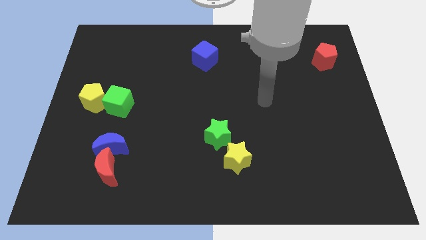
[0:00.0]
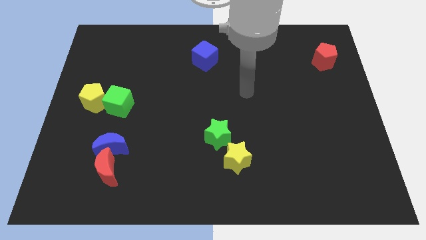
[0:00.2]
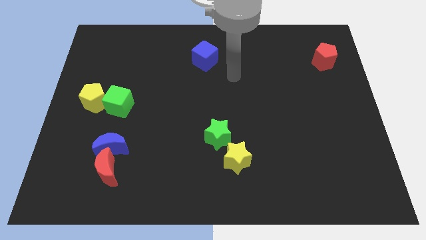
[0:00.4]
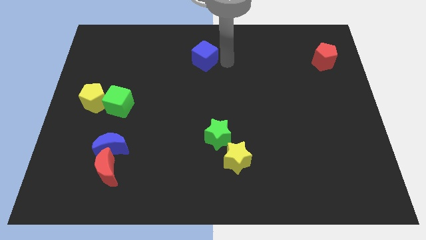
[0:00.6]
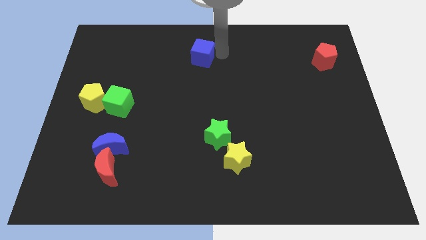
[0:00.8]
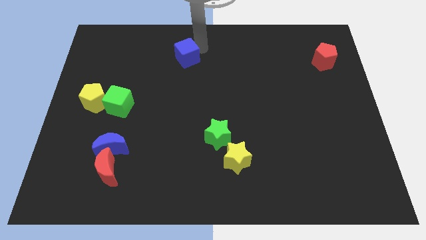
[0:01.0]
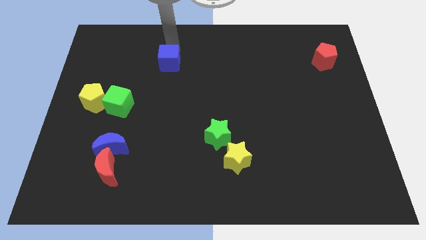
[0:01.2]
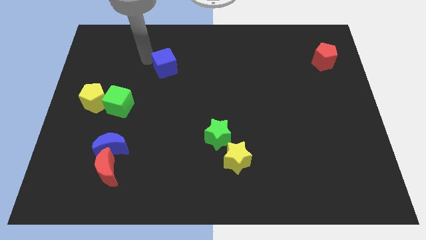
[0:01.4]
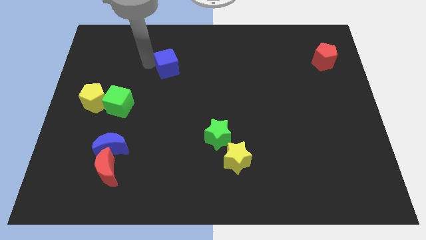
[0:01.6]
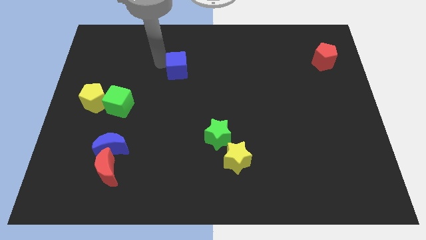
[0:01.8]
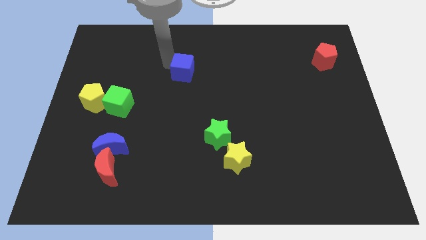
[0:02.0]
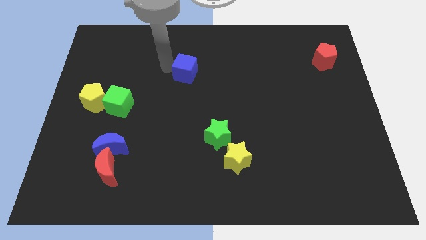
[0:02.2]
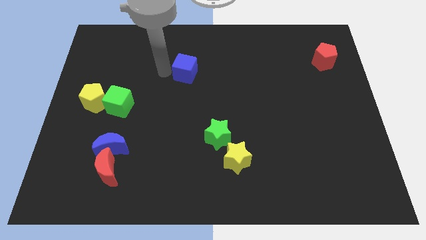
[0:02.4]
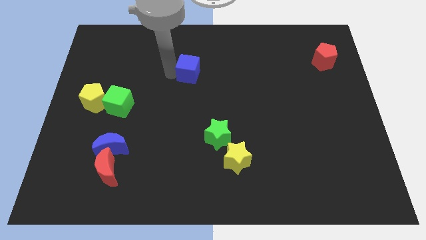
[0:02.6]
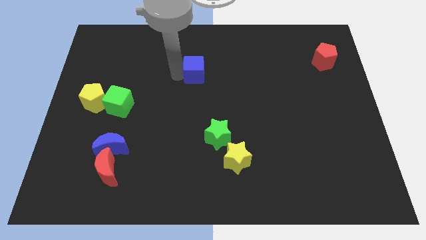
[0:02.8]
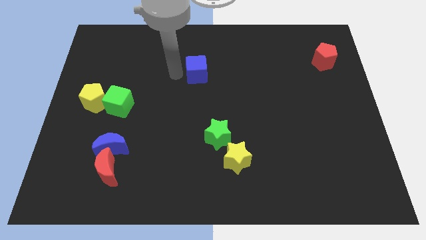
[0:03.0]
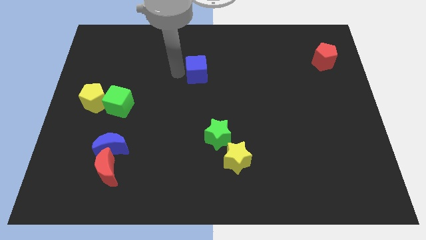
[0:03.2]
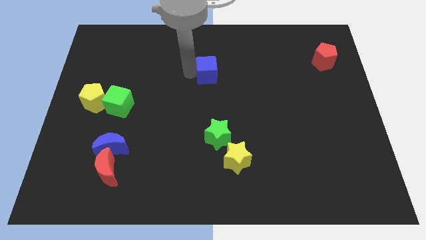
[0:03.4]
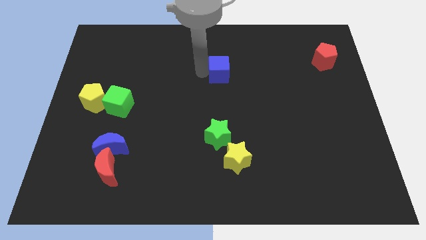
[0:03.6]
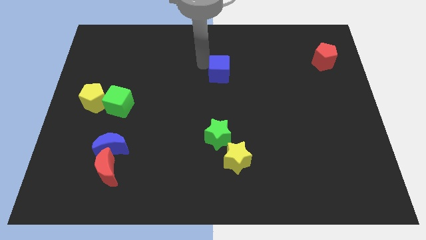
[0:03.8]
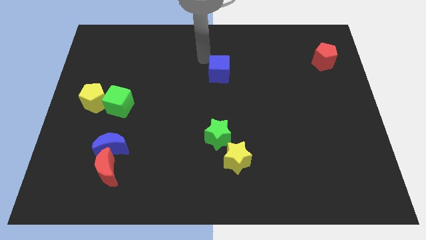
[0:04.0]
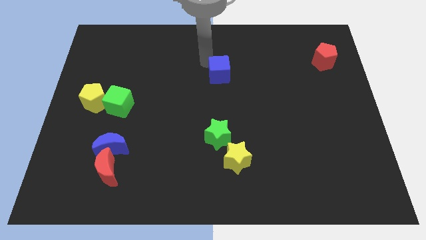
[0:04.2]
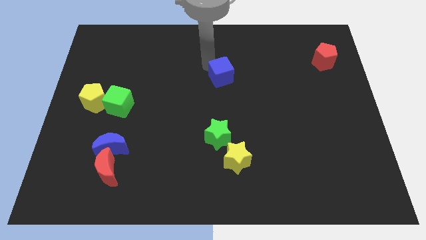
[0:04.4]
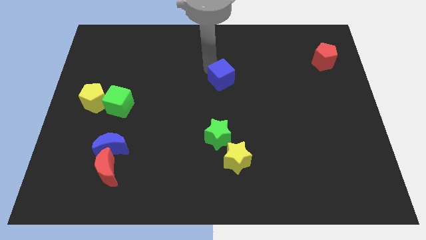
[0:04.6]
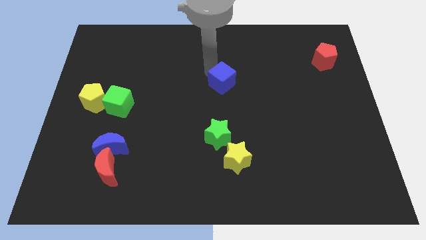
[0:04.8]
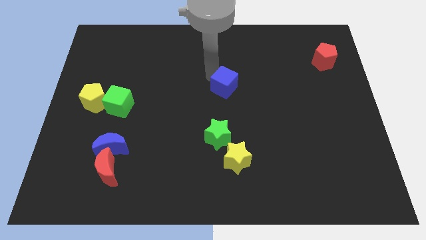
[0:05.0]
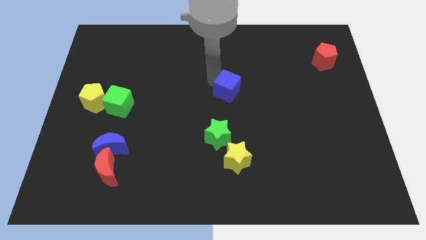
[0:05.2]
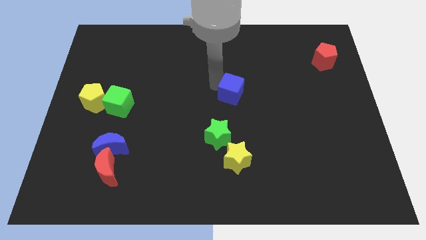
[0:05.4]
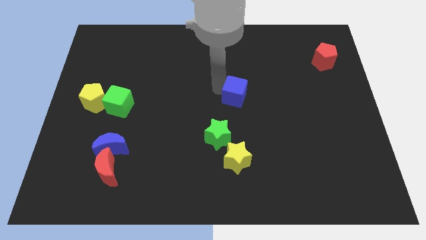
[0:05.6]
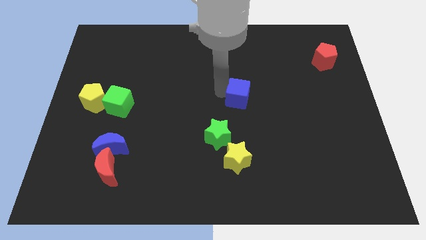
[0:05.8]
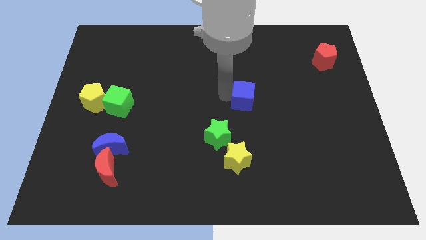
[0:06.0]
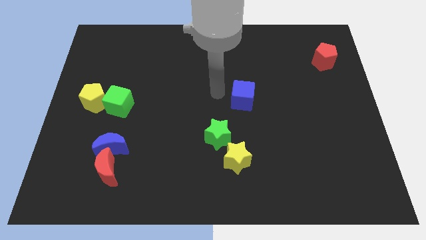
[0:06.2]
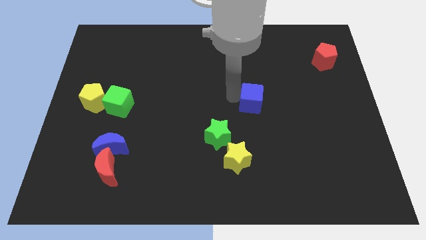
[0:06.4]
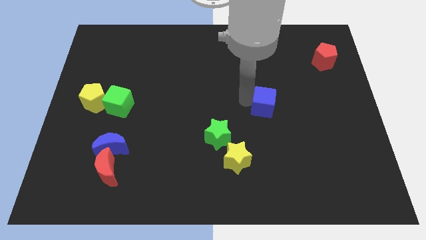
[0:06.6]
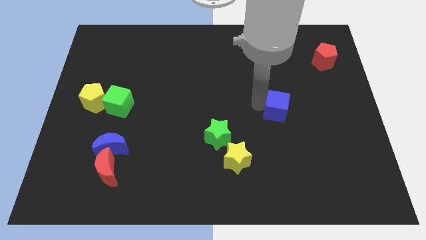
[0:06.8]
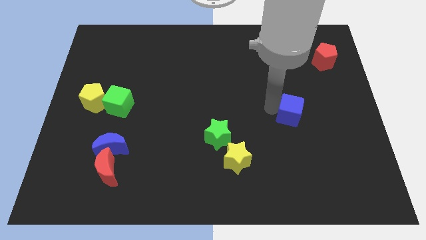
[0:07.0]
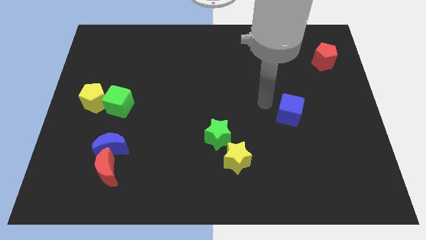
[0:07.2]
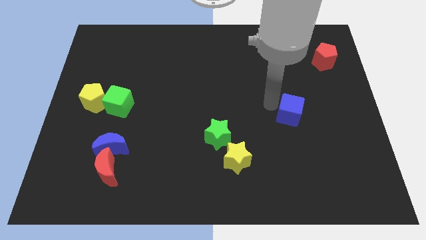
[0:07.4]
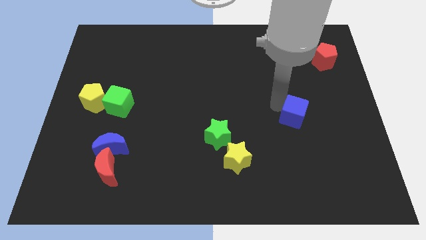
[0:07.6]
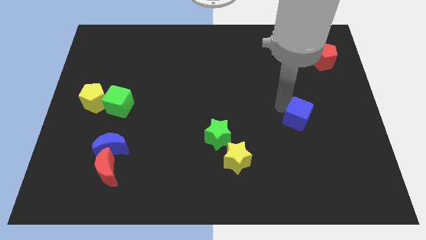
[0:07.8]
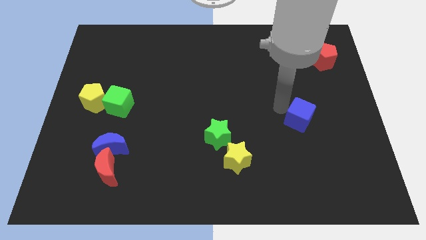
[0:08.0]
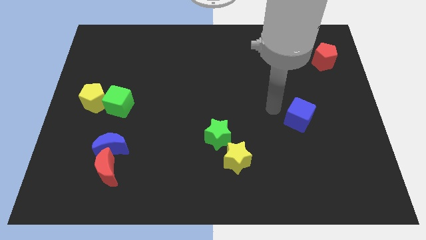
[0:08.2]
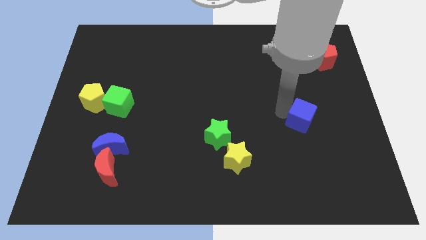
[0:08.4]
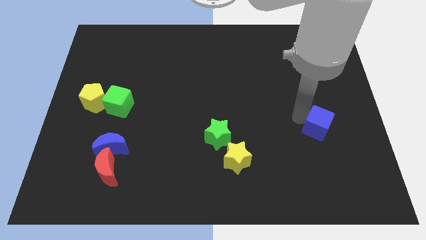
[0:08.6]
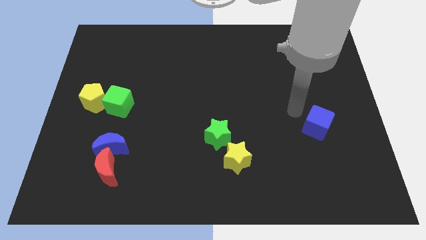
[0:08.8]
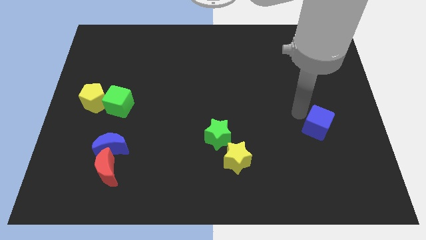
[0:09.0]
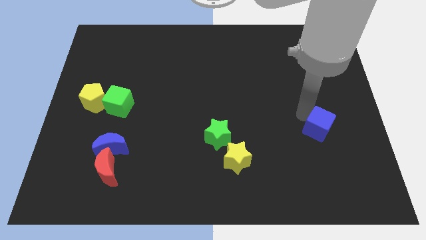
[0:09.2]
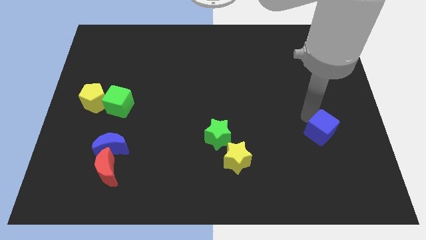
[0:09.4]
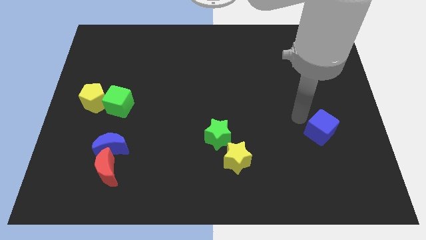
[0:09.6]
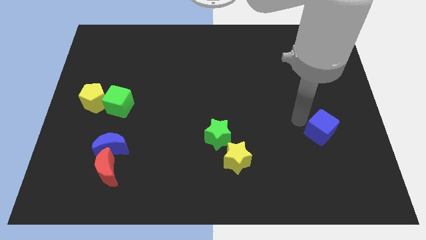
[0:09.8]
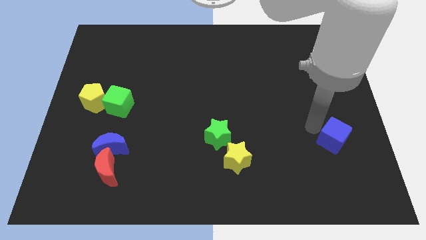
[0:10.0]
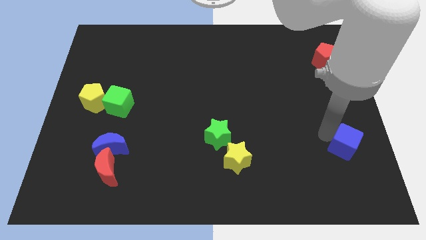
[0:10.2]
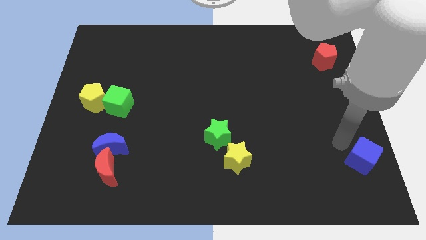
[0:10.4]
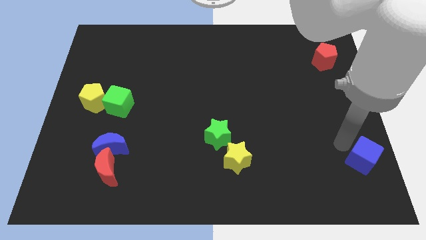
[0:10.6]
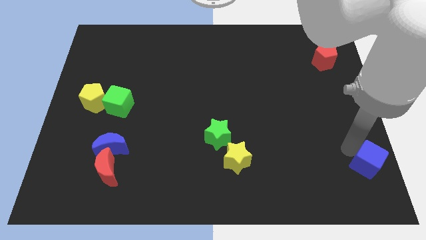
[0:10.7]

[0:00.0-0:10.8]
move the blue cube to the bottom right of the board
